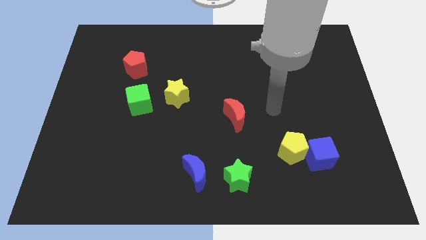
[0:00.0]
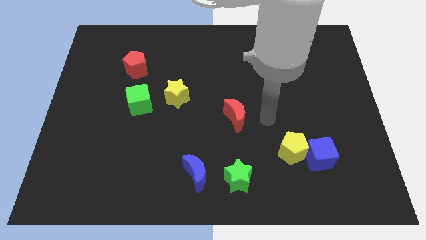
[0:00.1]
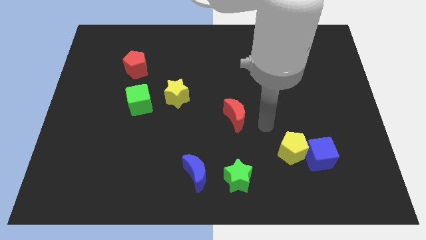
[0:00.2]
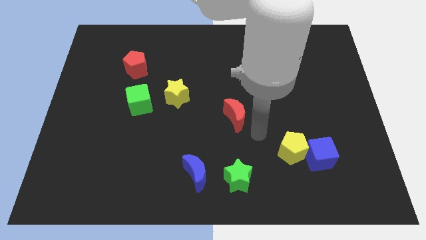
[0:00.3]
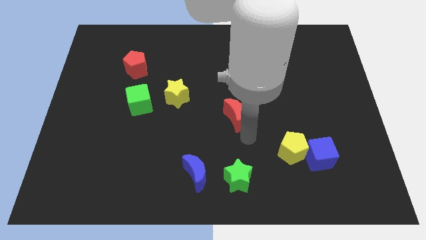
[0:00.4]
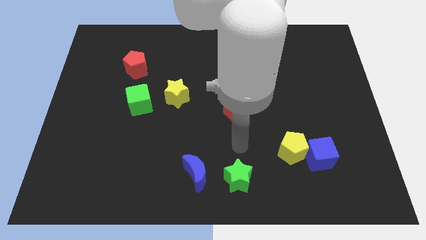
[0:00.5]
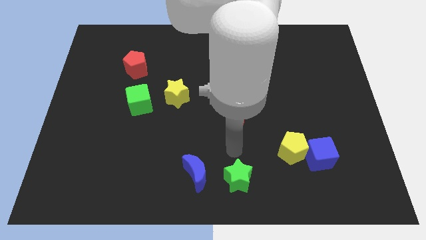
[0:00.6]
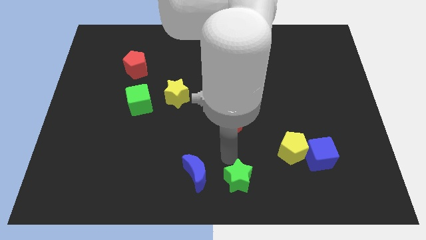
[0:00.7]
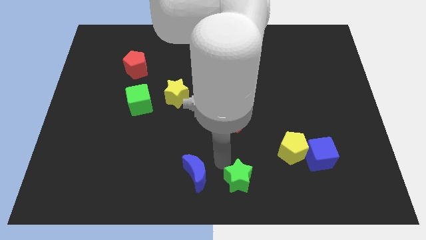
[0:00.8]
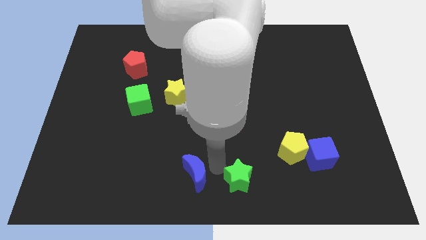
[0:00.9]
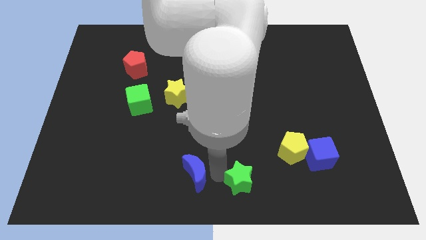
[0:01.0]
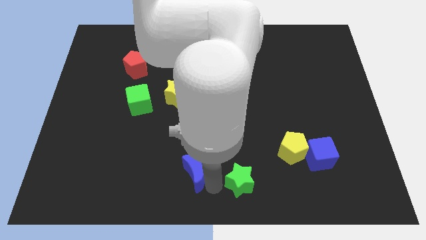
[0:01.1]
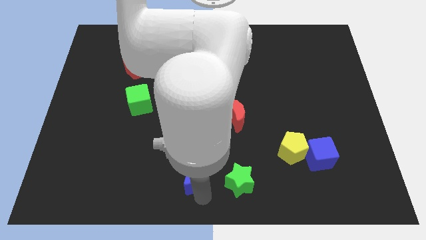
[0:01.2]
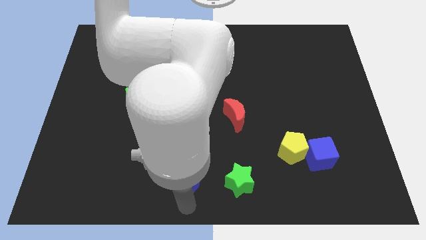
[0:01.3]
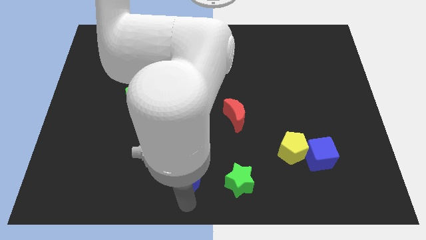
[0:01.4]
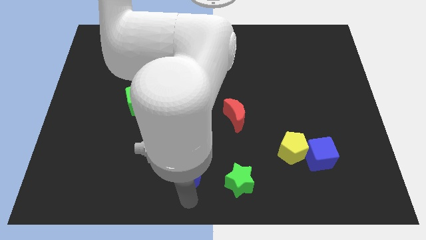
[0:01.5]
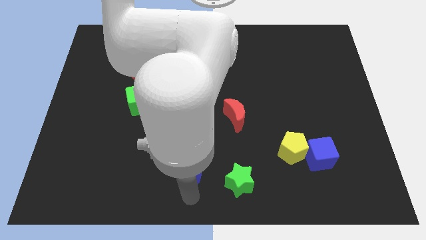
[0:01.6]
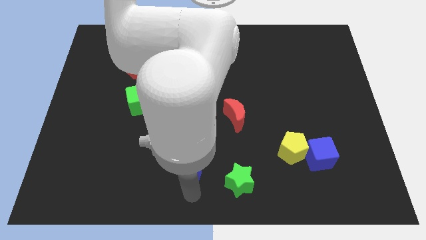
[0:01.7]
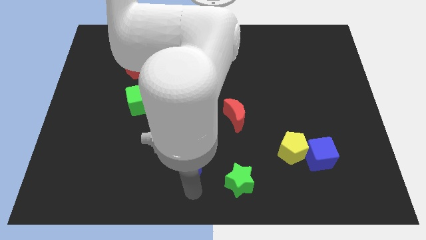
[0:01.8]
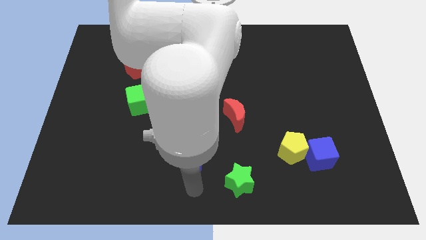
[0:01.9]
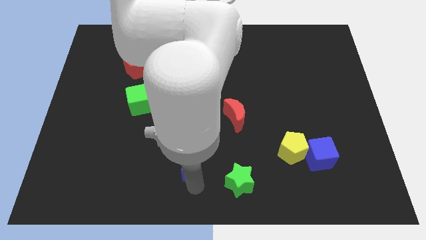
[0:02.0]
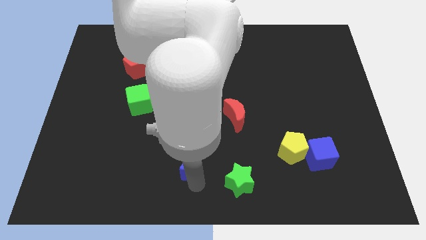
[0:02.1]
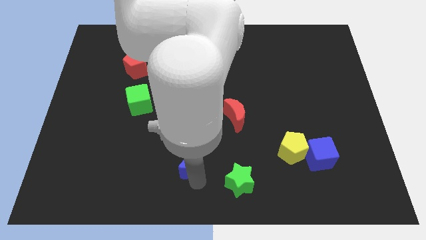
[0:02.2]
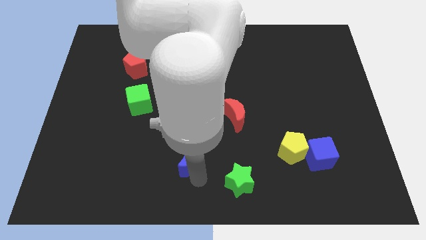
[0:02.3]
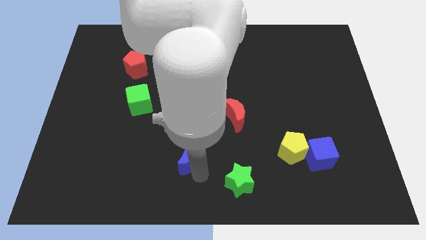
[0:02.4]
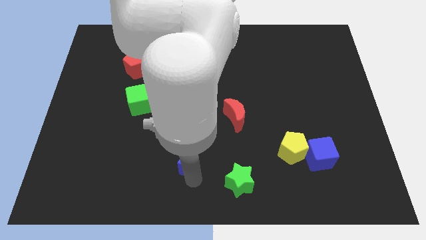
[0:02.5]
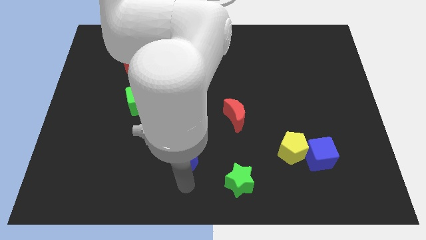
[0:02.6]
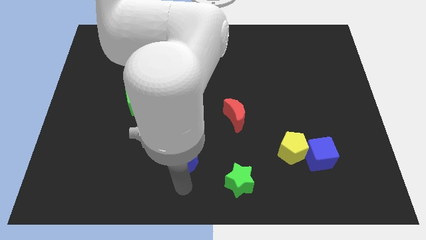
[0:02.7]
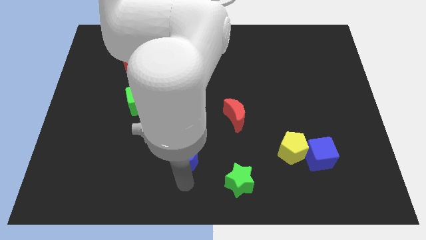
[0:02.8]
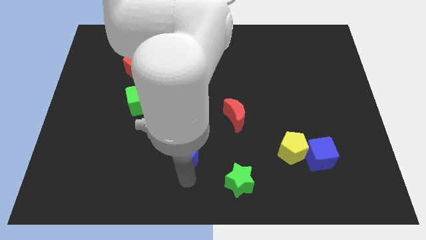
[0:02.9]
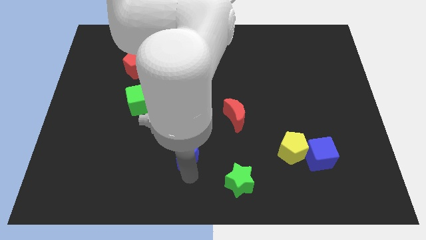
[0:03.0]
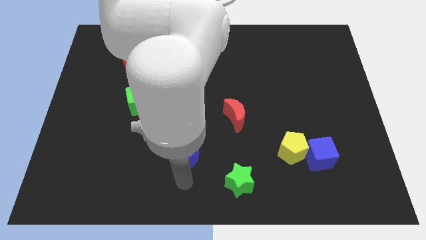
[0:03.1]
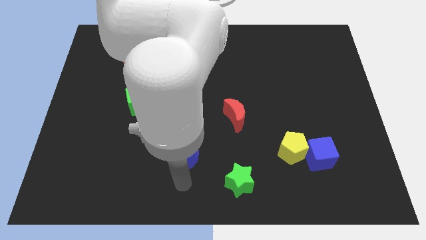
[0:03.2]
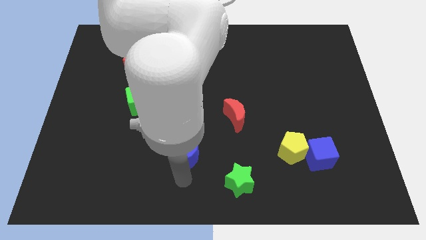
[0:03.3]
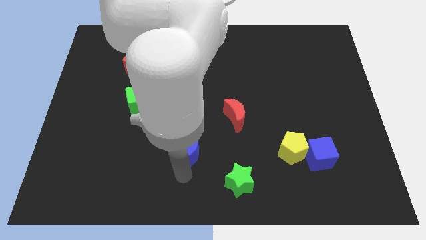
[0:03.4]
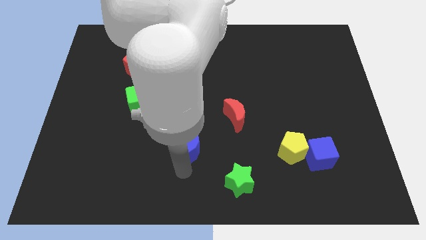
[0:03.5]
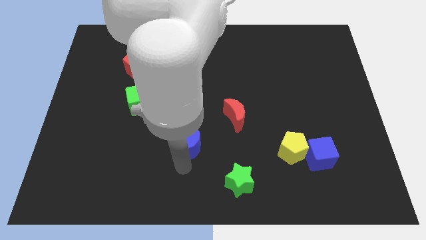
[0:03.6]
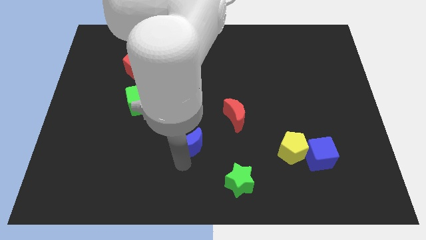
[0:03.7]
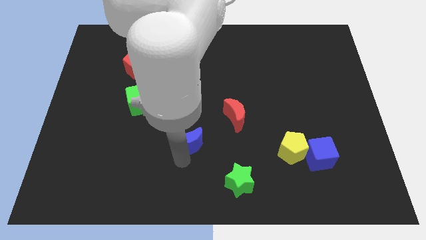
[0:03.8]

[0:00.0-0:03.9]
slide the blue moon a bit upwards

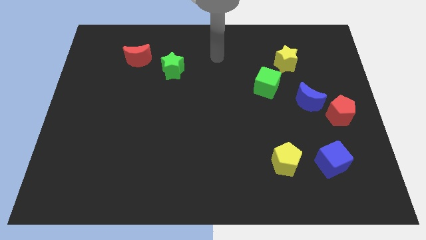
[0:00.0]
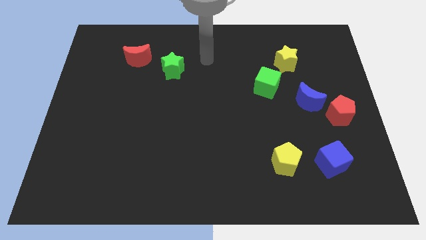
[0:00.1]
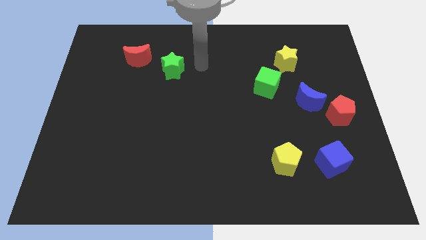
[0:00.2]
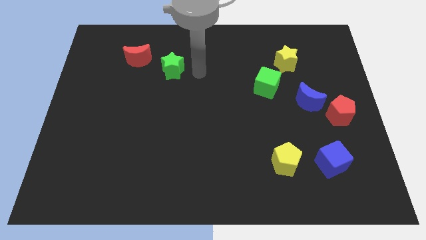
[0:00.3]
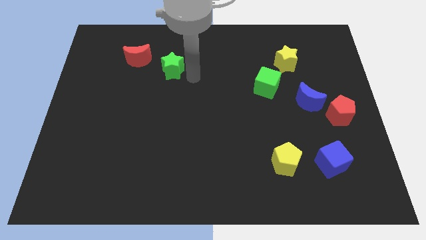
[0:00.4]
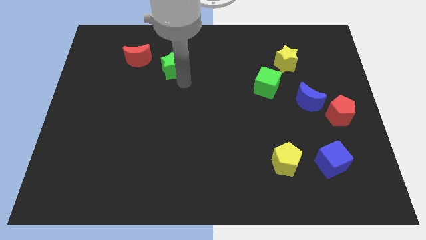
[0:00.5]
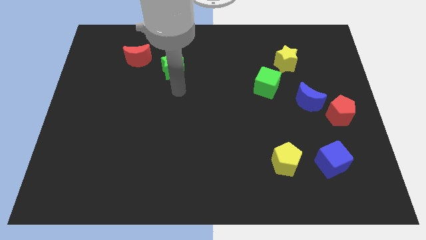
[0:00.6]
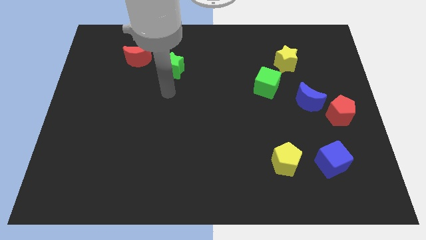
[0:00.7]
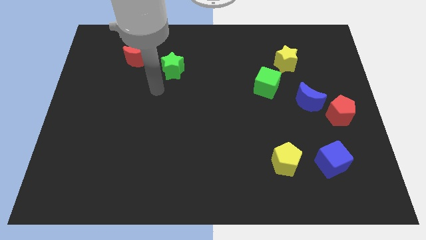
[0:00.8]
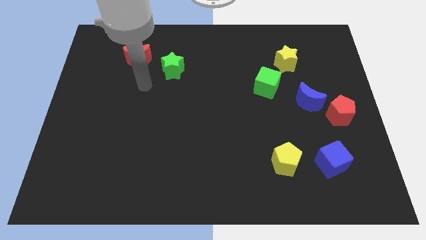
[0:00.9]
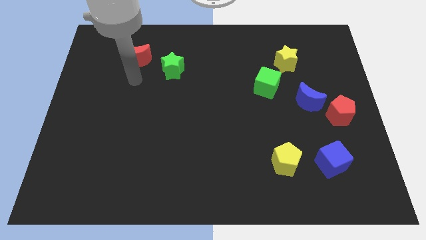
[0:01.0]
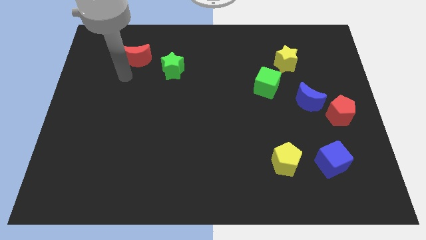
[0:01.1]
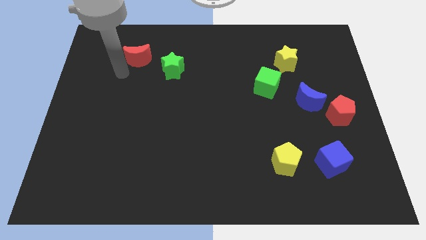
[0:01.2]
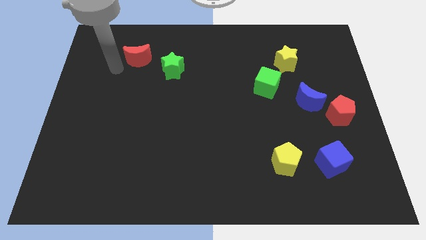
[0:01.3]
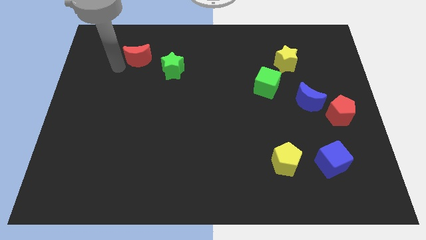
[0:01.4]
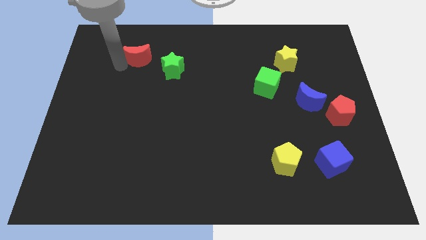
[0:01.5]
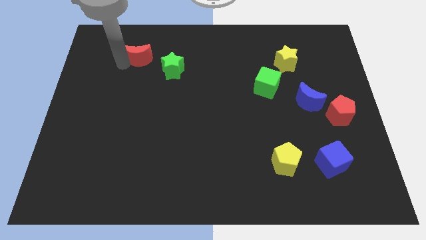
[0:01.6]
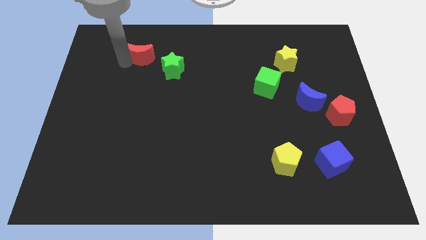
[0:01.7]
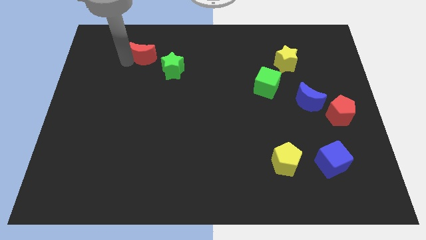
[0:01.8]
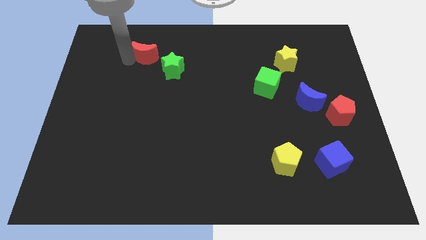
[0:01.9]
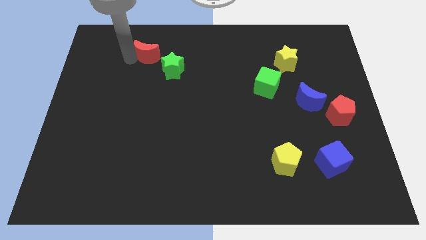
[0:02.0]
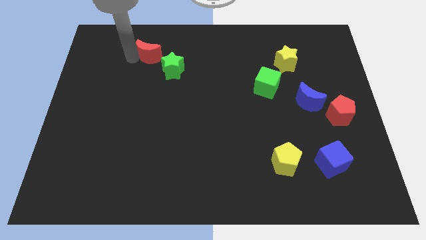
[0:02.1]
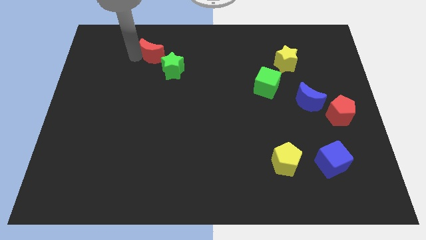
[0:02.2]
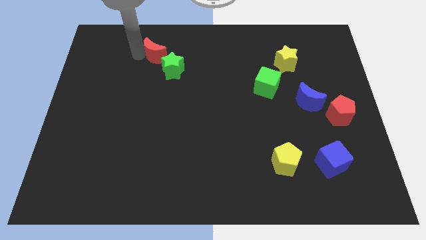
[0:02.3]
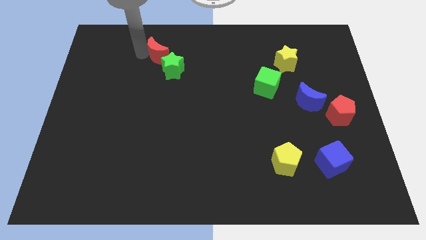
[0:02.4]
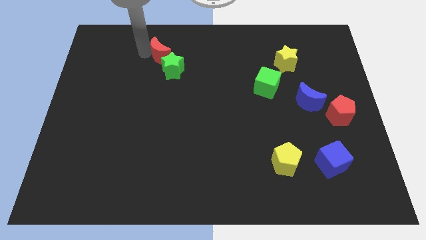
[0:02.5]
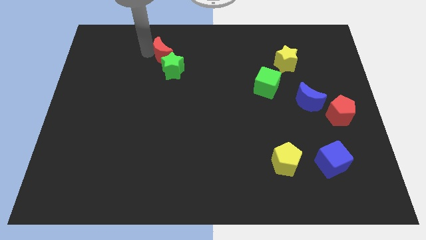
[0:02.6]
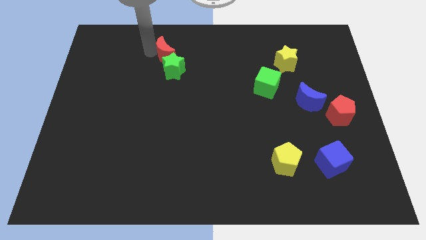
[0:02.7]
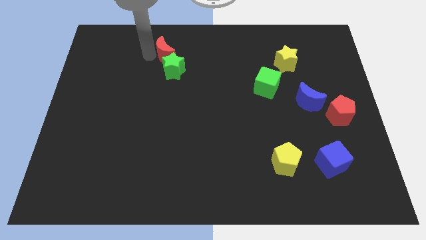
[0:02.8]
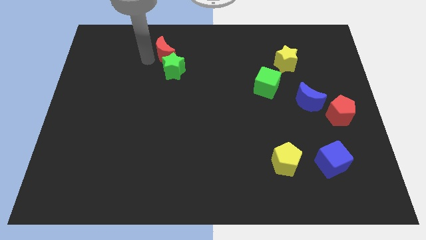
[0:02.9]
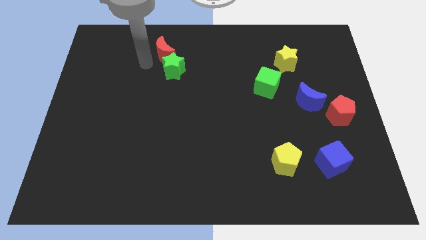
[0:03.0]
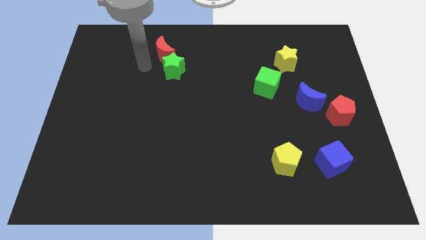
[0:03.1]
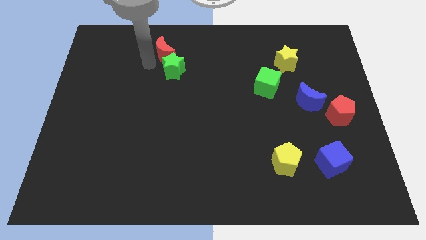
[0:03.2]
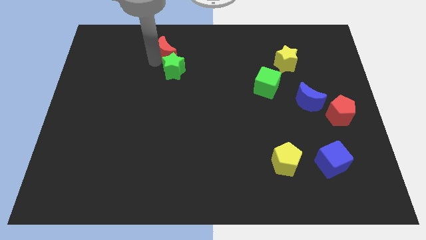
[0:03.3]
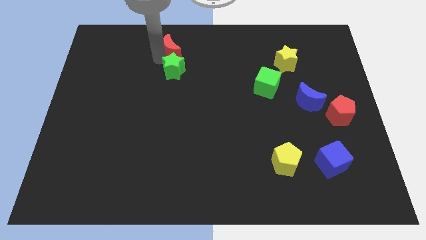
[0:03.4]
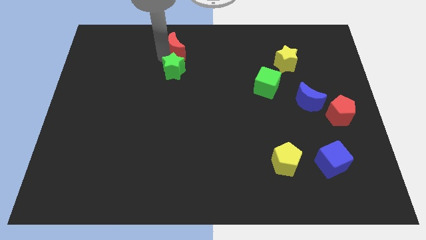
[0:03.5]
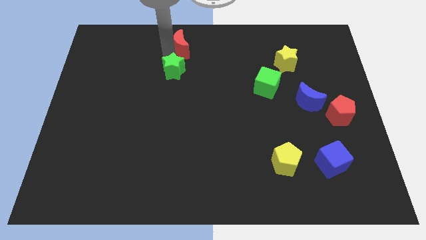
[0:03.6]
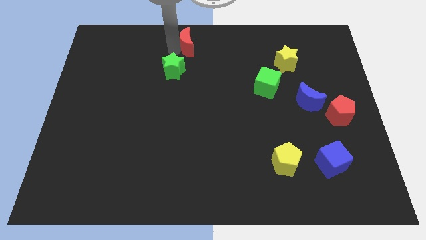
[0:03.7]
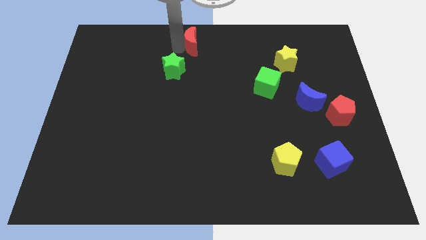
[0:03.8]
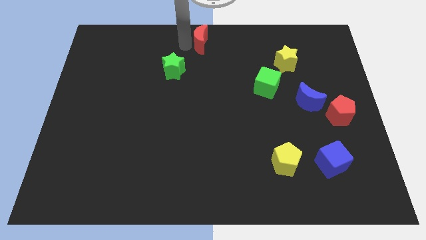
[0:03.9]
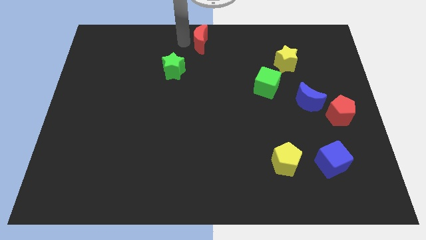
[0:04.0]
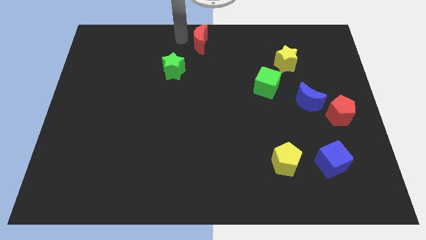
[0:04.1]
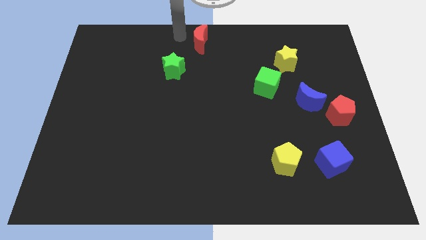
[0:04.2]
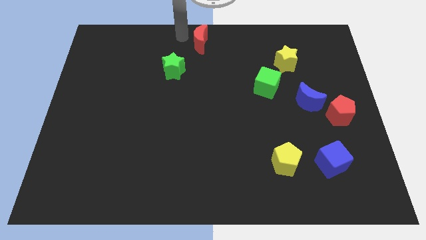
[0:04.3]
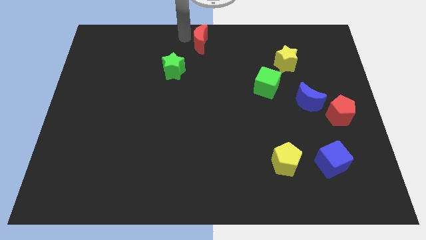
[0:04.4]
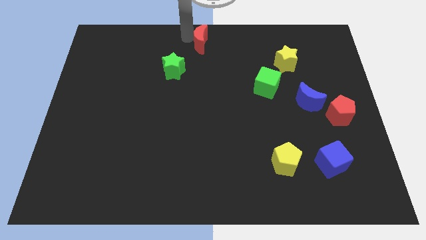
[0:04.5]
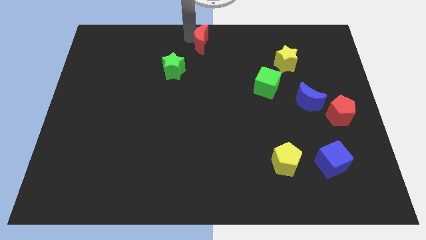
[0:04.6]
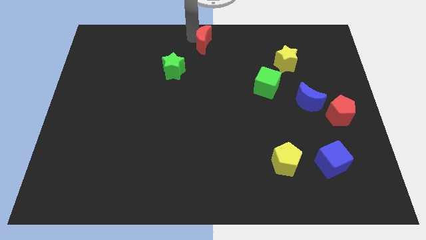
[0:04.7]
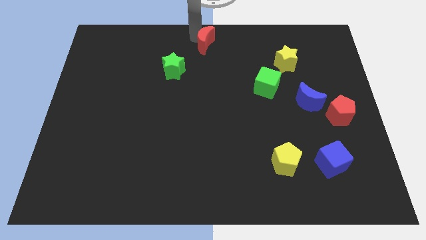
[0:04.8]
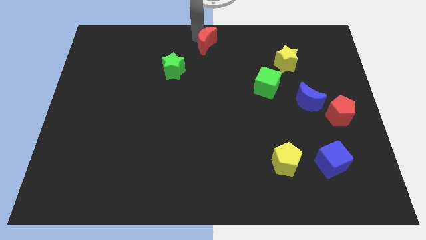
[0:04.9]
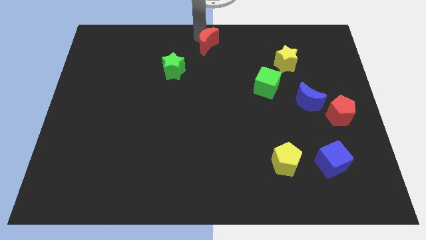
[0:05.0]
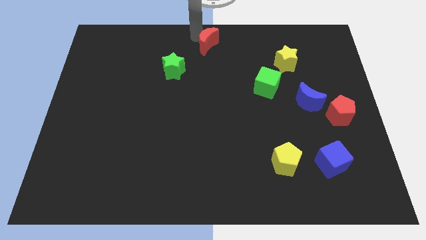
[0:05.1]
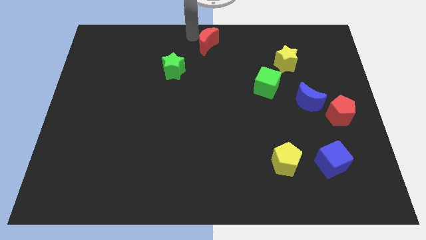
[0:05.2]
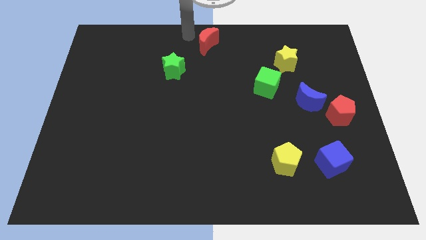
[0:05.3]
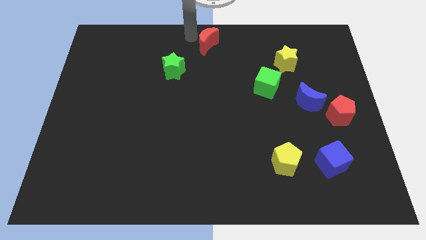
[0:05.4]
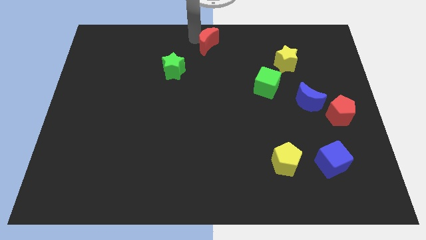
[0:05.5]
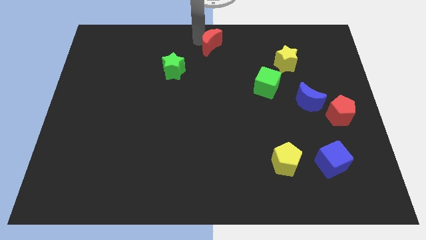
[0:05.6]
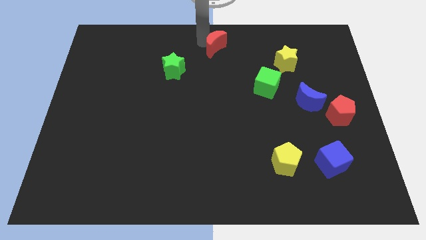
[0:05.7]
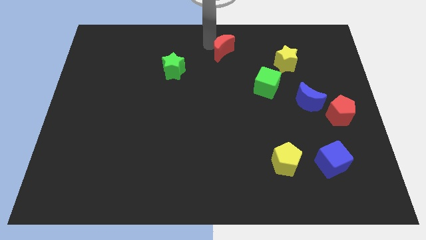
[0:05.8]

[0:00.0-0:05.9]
push the red moon to the right
